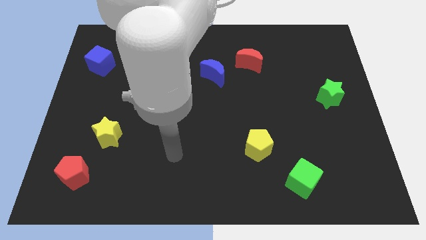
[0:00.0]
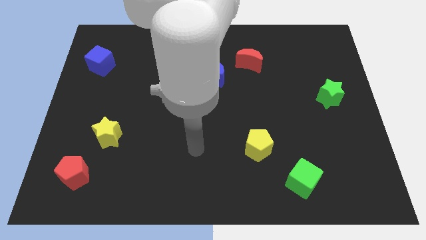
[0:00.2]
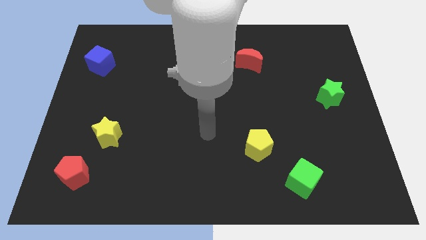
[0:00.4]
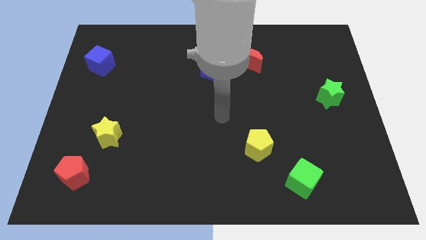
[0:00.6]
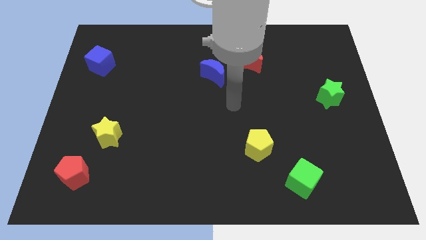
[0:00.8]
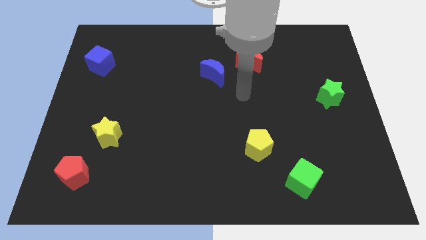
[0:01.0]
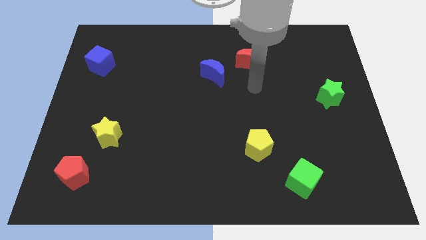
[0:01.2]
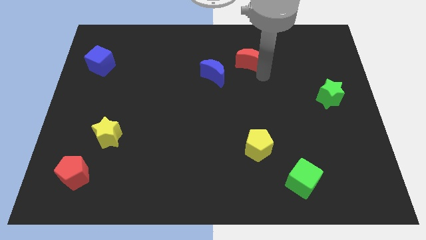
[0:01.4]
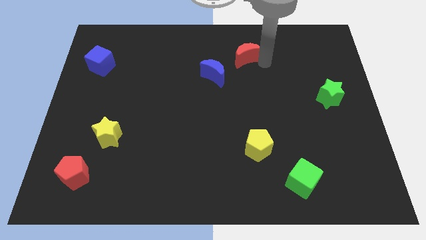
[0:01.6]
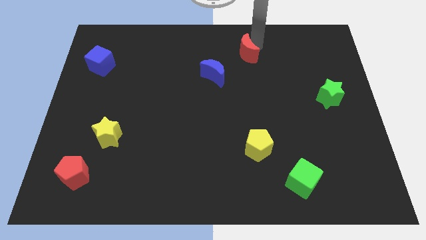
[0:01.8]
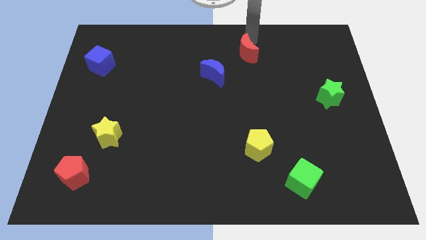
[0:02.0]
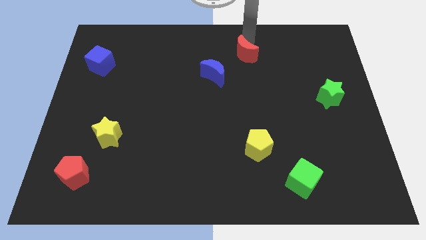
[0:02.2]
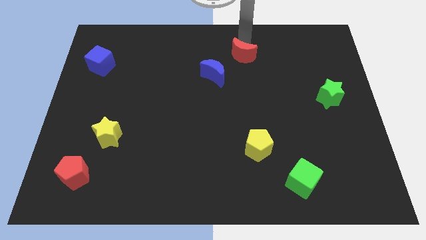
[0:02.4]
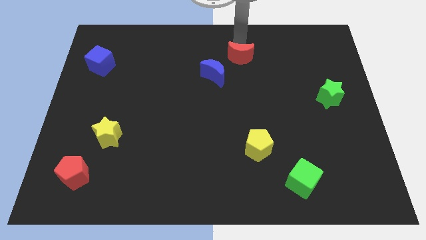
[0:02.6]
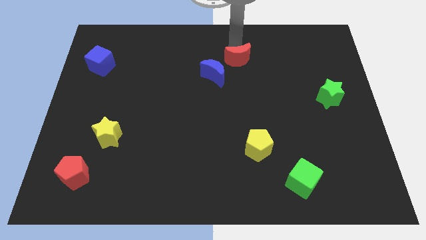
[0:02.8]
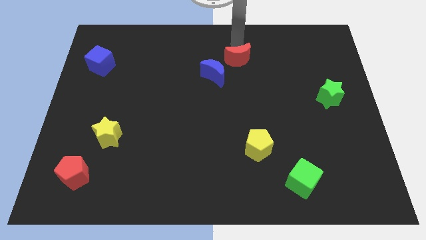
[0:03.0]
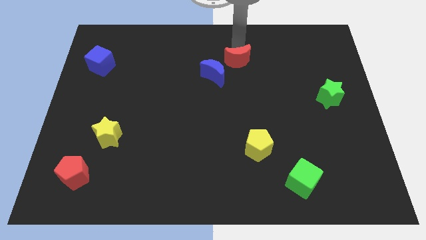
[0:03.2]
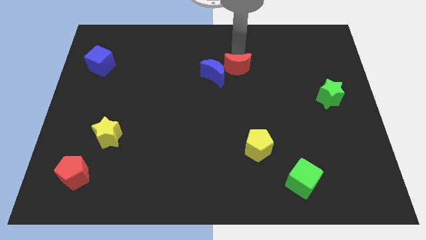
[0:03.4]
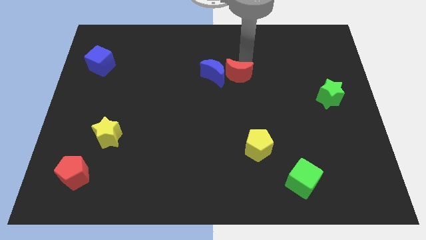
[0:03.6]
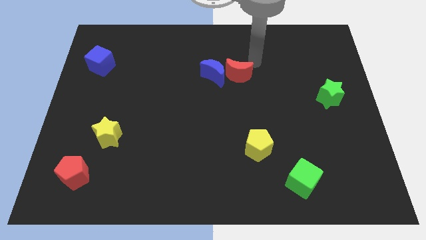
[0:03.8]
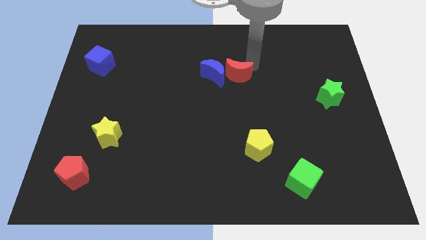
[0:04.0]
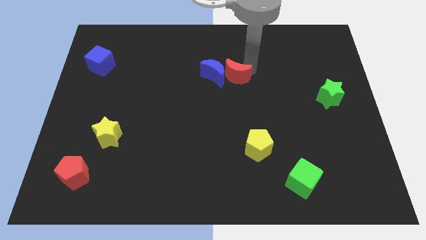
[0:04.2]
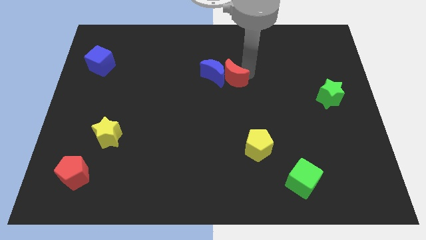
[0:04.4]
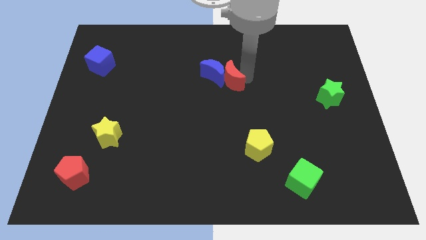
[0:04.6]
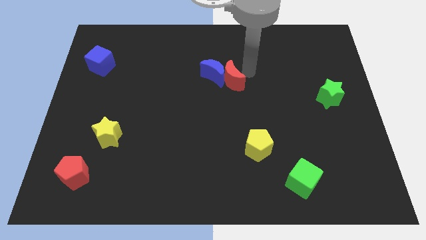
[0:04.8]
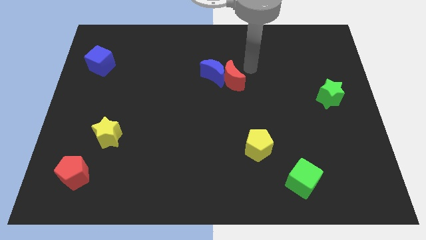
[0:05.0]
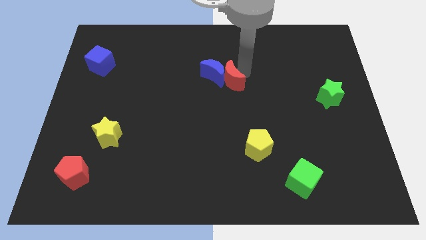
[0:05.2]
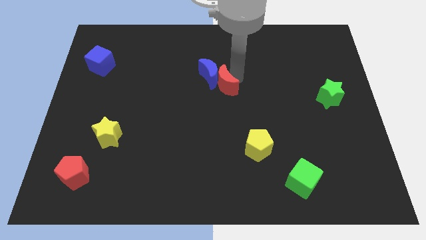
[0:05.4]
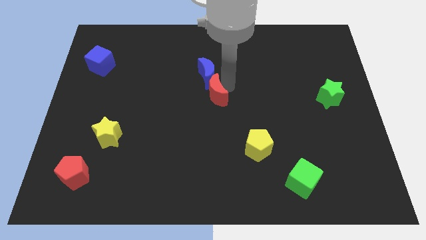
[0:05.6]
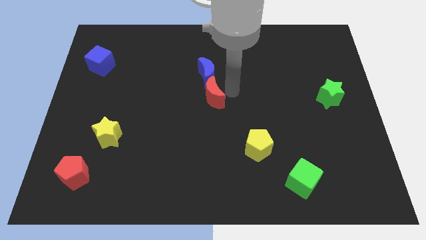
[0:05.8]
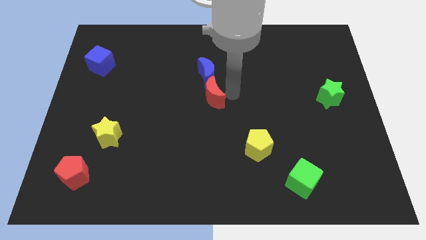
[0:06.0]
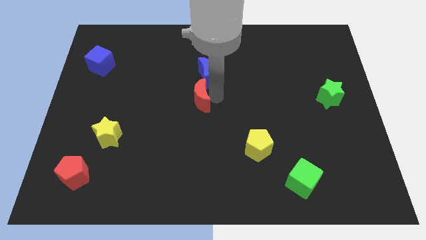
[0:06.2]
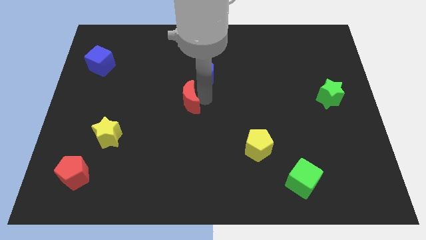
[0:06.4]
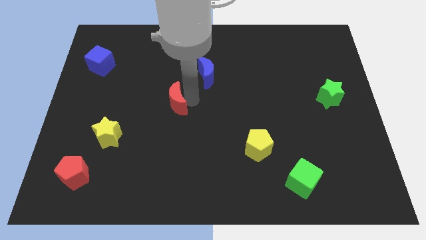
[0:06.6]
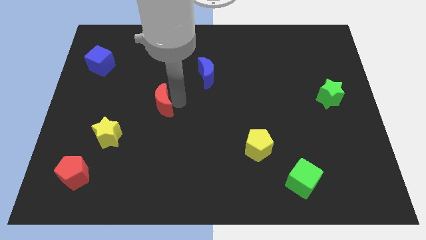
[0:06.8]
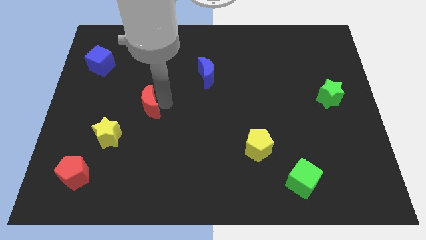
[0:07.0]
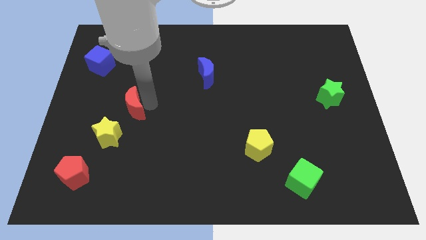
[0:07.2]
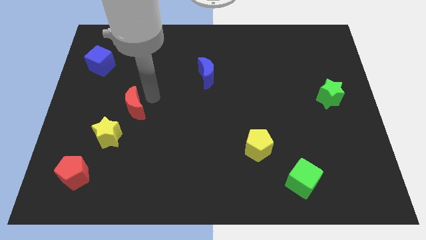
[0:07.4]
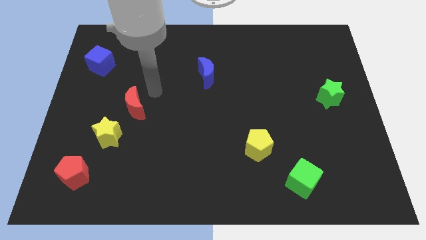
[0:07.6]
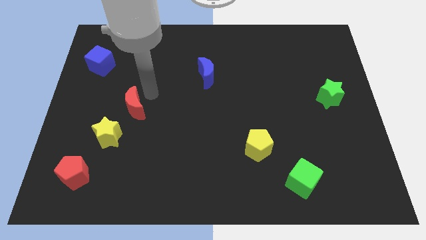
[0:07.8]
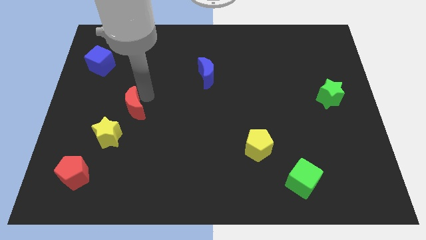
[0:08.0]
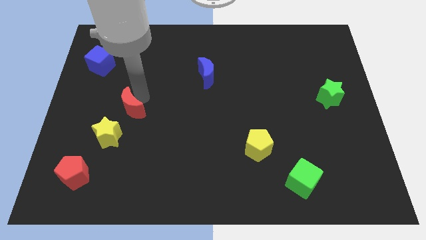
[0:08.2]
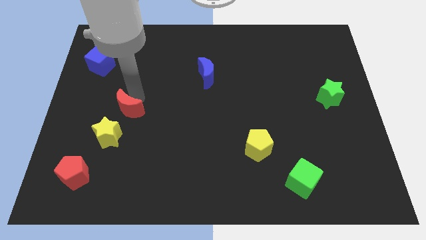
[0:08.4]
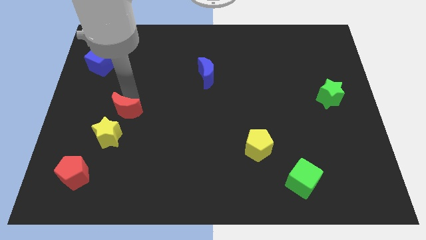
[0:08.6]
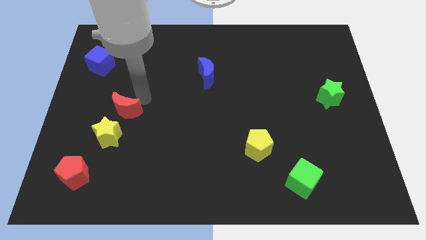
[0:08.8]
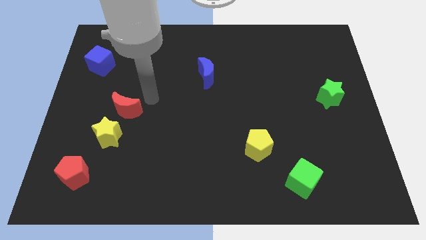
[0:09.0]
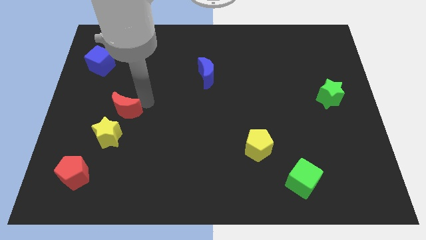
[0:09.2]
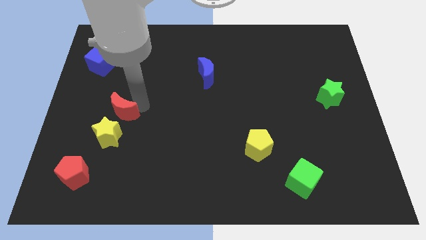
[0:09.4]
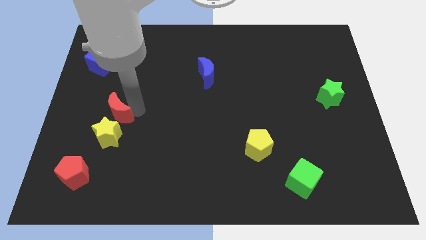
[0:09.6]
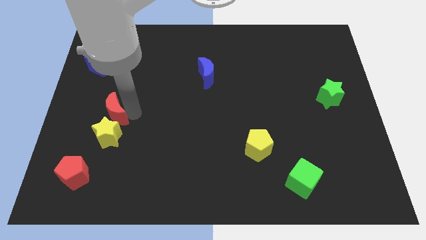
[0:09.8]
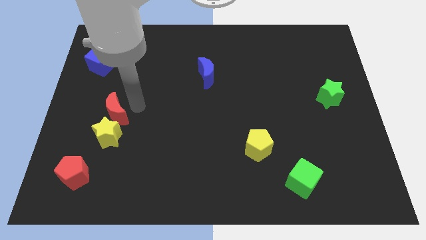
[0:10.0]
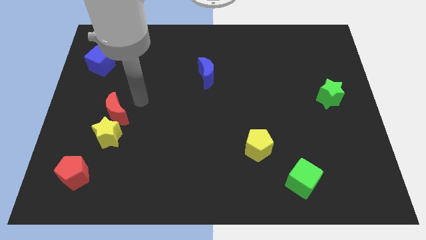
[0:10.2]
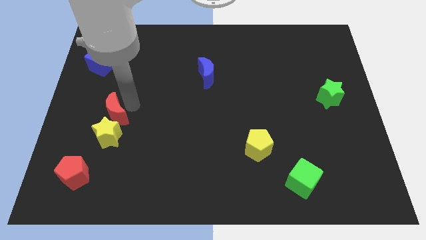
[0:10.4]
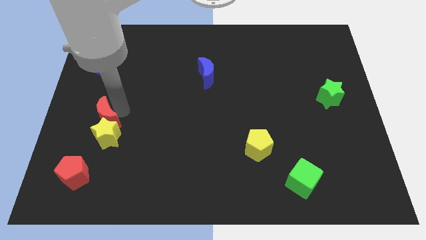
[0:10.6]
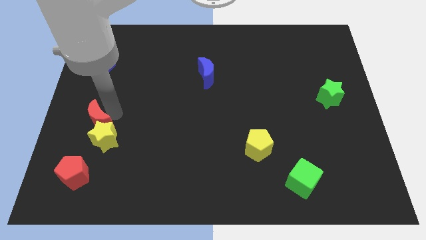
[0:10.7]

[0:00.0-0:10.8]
slide the red moon to the top of the red pentagon

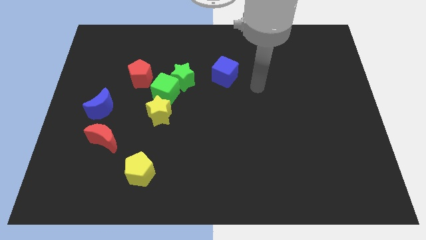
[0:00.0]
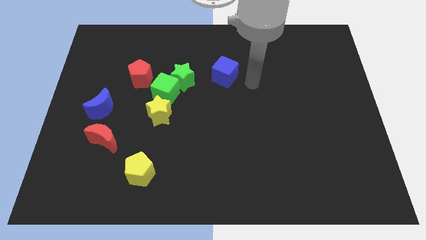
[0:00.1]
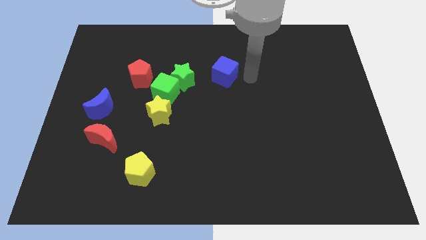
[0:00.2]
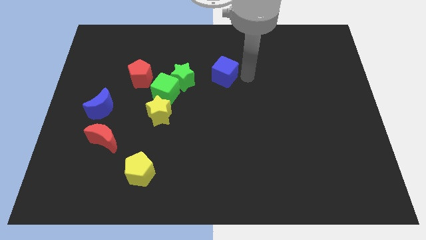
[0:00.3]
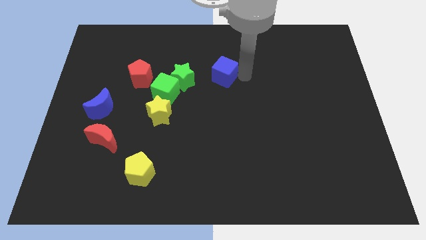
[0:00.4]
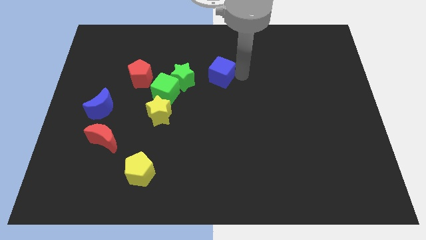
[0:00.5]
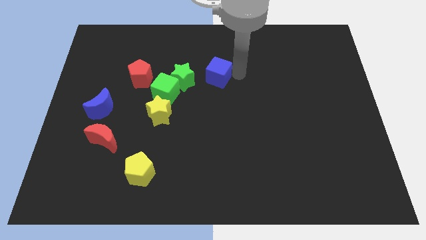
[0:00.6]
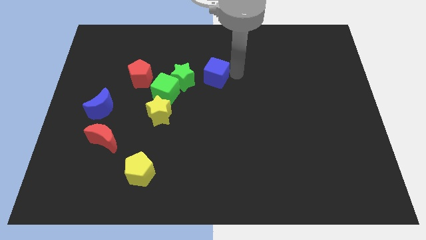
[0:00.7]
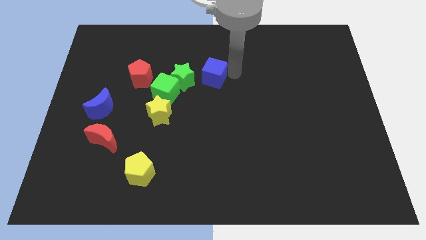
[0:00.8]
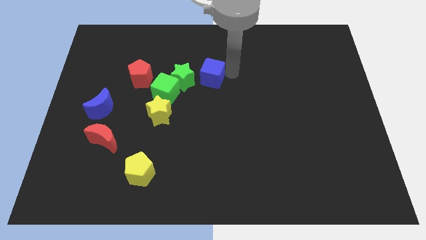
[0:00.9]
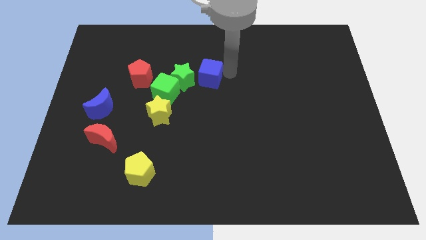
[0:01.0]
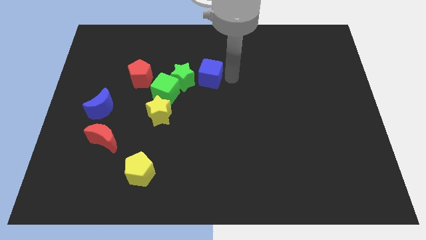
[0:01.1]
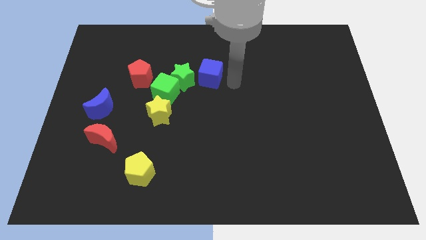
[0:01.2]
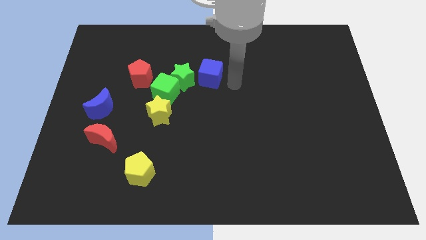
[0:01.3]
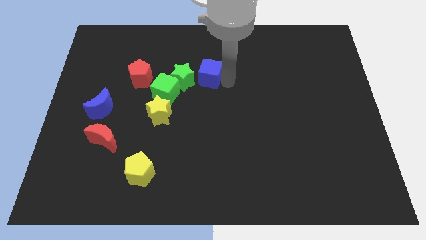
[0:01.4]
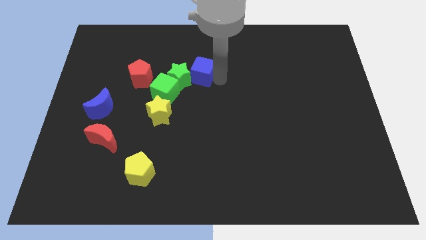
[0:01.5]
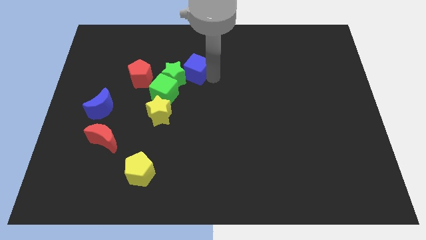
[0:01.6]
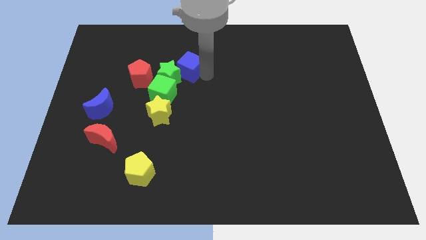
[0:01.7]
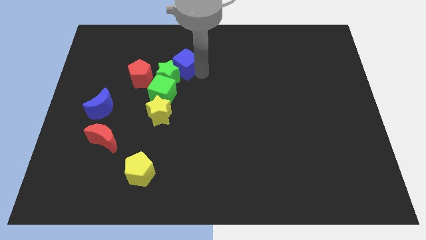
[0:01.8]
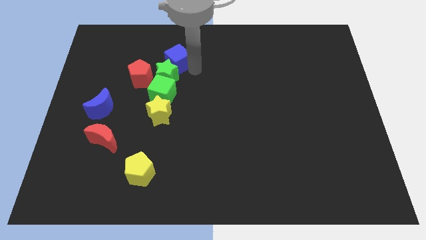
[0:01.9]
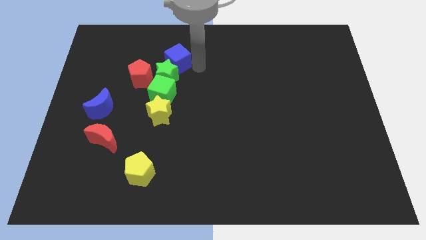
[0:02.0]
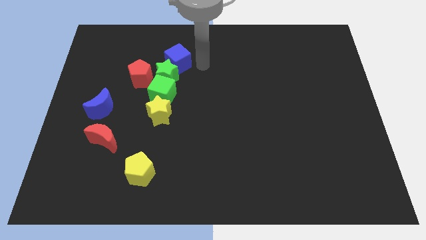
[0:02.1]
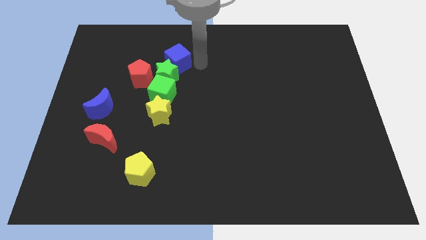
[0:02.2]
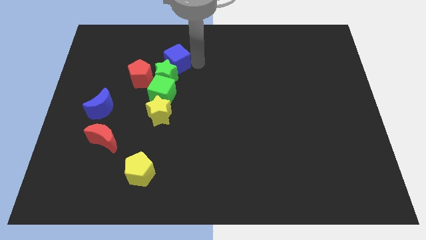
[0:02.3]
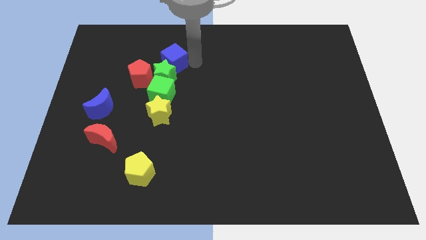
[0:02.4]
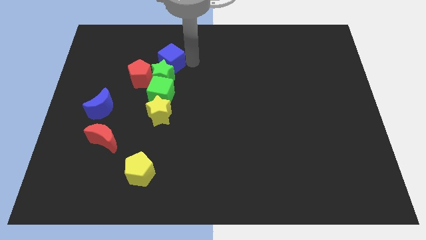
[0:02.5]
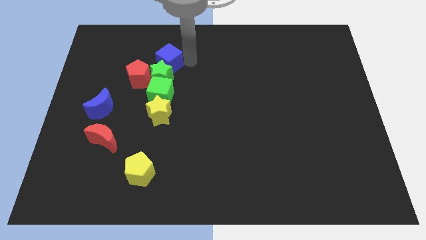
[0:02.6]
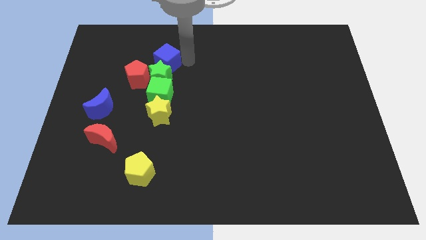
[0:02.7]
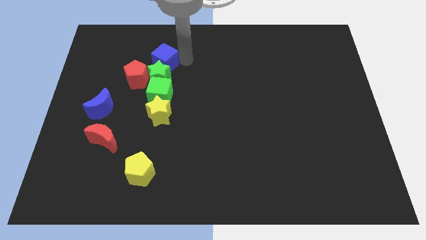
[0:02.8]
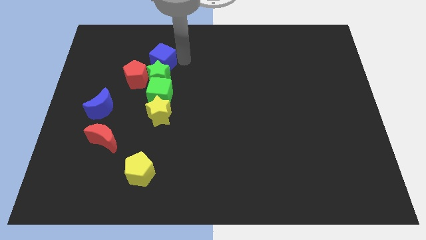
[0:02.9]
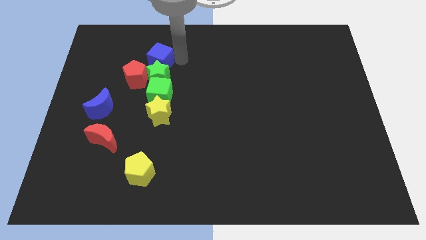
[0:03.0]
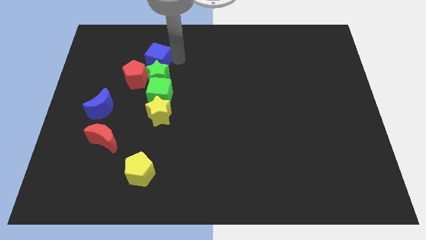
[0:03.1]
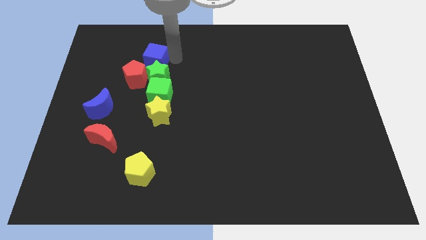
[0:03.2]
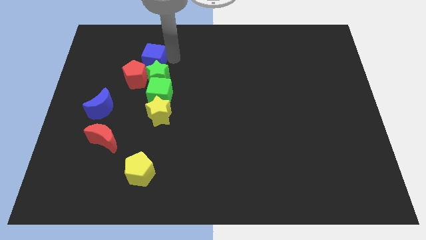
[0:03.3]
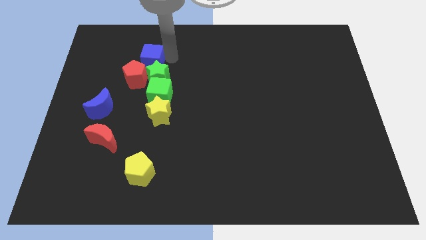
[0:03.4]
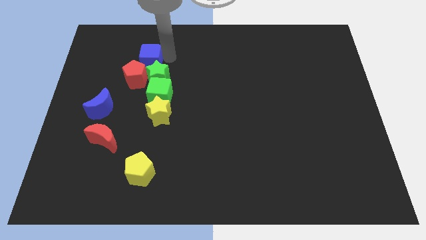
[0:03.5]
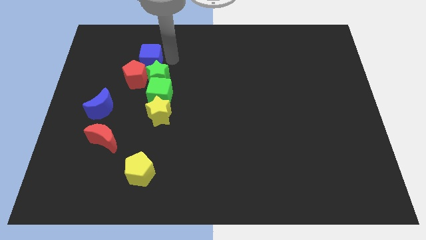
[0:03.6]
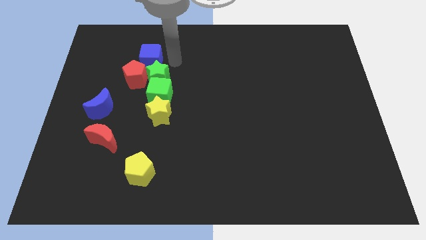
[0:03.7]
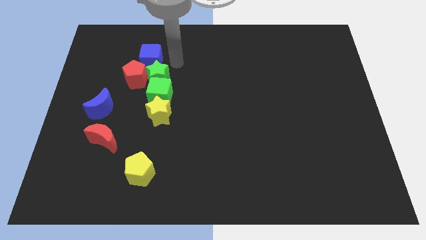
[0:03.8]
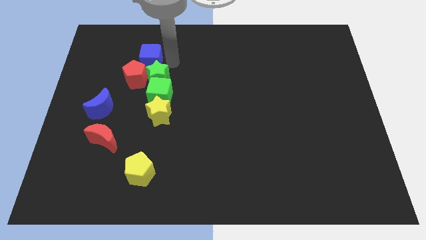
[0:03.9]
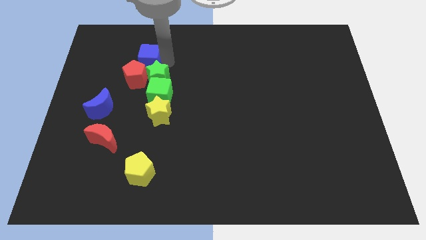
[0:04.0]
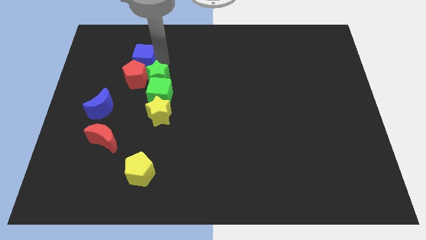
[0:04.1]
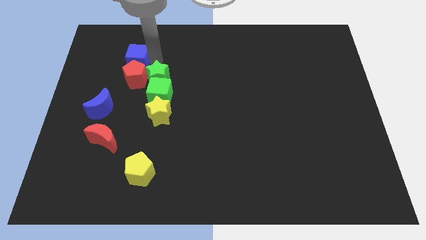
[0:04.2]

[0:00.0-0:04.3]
push the blue cube to the top left of the red pentagon
